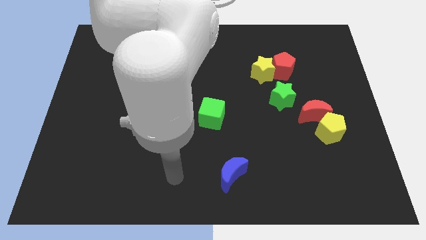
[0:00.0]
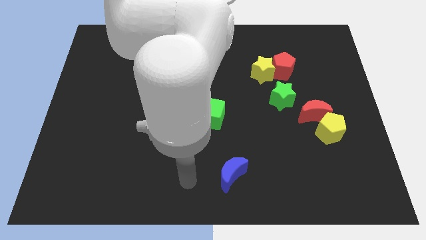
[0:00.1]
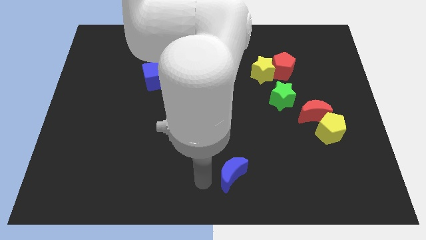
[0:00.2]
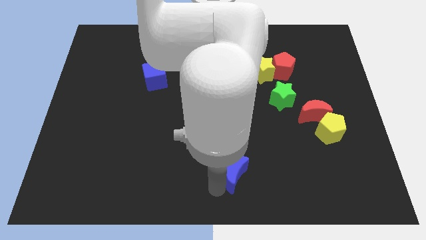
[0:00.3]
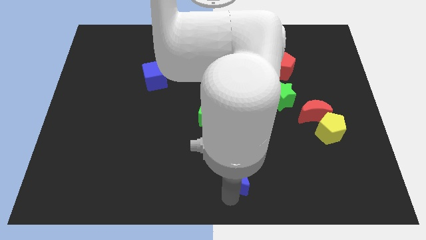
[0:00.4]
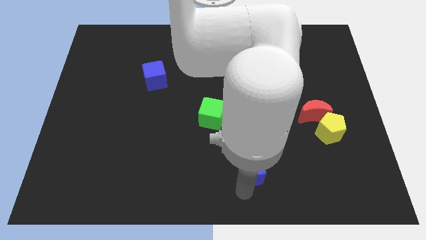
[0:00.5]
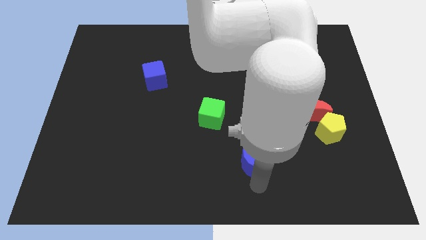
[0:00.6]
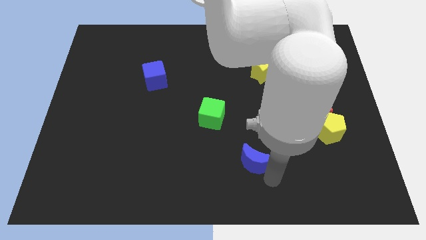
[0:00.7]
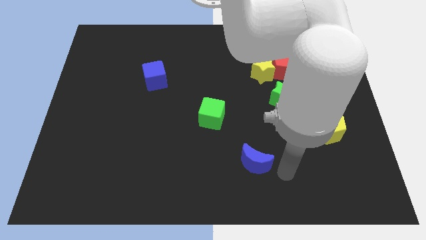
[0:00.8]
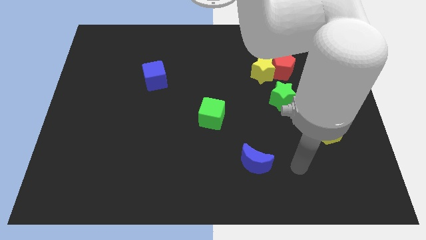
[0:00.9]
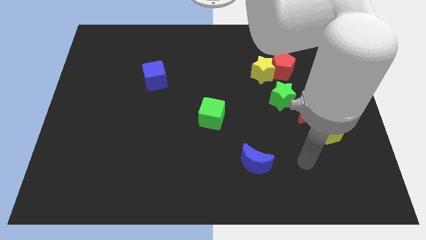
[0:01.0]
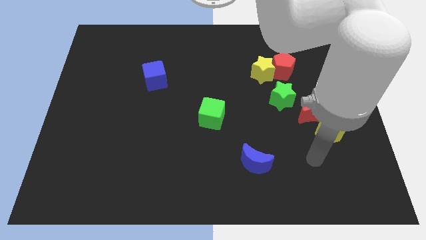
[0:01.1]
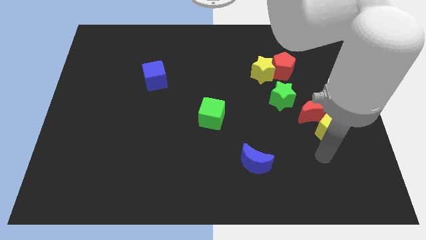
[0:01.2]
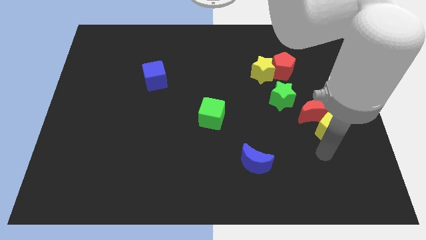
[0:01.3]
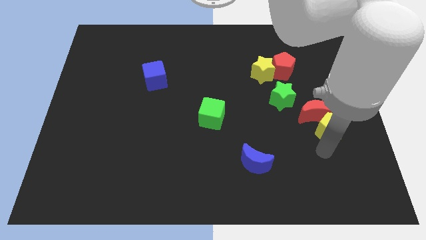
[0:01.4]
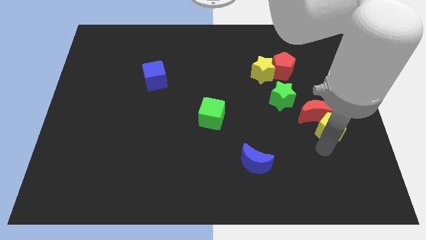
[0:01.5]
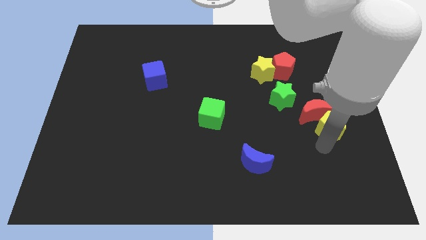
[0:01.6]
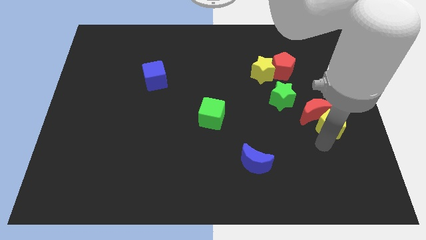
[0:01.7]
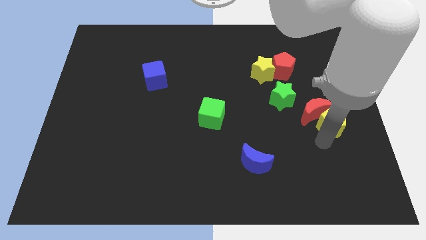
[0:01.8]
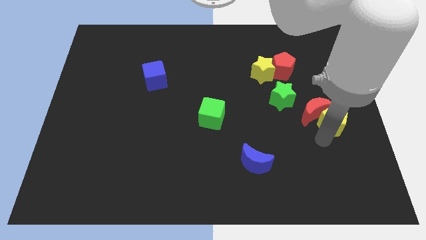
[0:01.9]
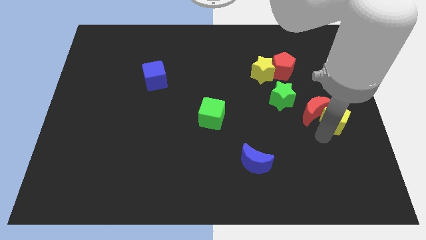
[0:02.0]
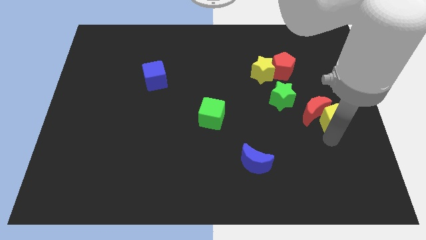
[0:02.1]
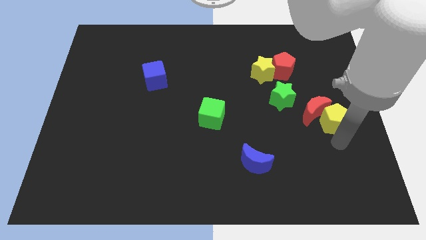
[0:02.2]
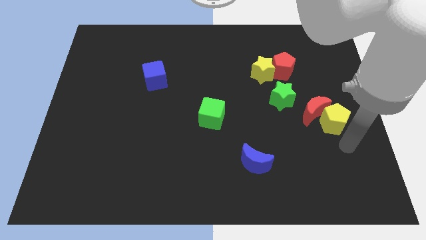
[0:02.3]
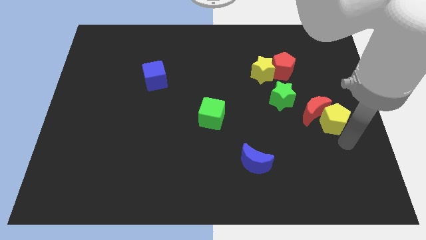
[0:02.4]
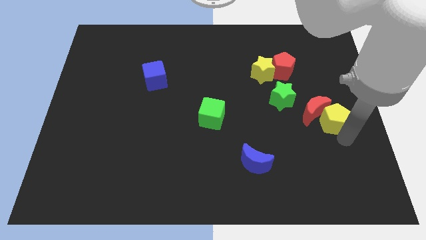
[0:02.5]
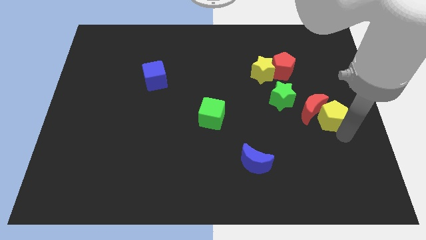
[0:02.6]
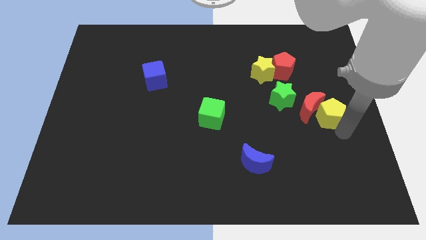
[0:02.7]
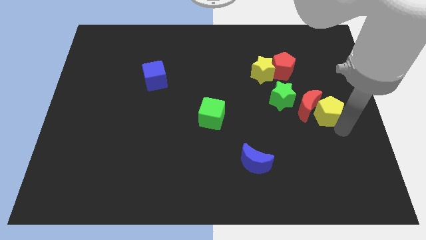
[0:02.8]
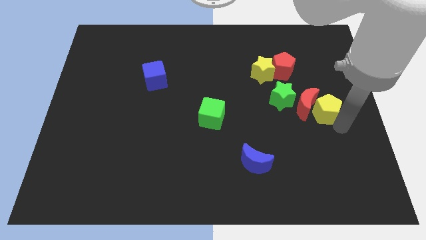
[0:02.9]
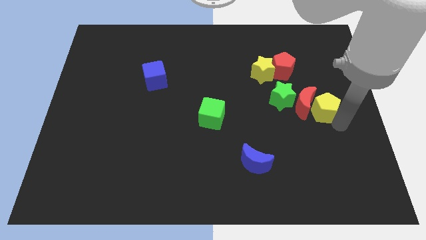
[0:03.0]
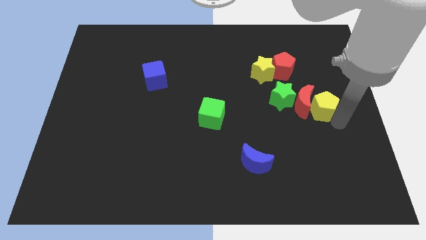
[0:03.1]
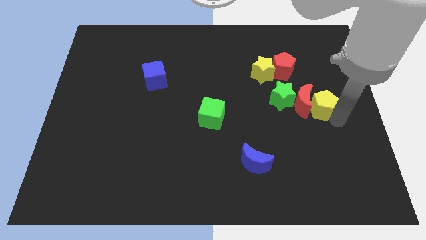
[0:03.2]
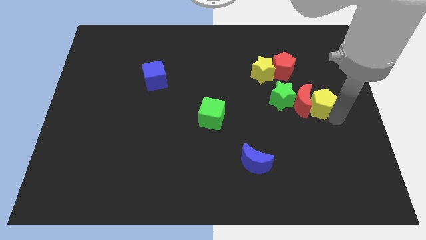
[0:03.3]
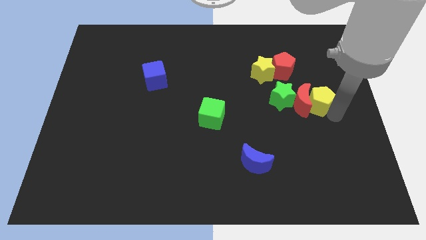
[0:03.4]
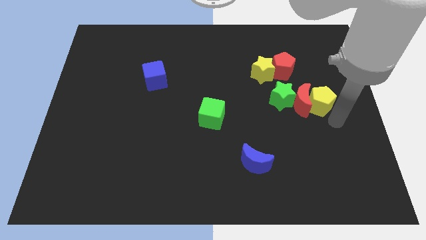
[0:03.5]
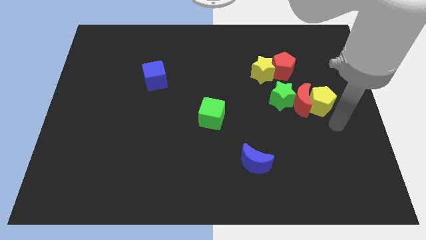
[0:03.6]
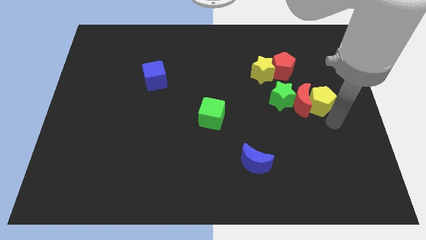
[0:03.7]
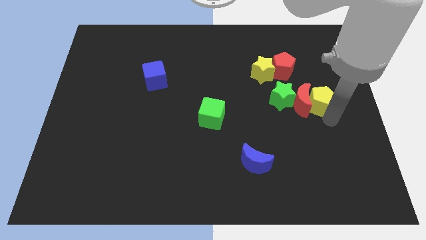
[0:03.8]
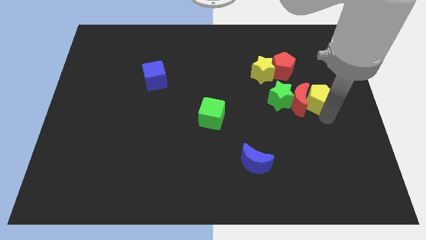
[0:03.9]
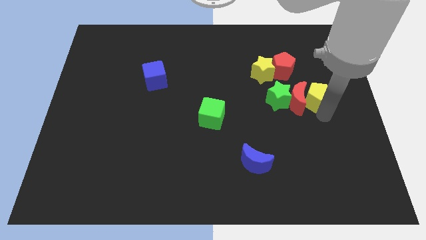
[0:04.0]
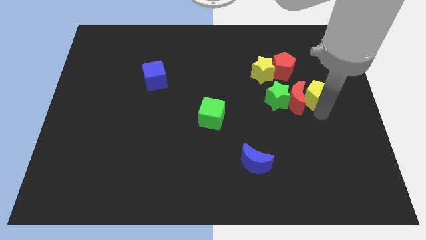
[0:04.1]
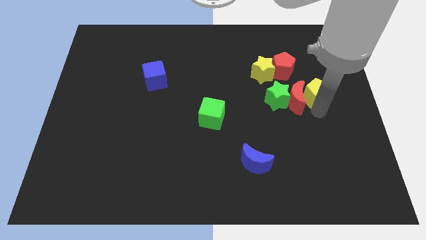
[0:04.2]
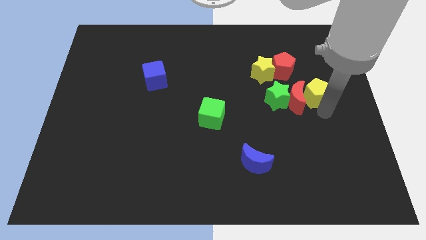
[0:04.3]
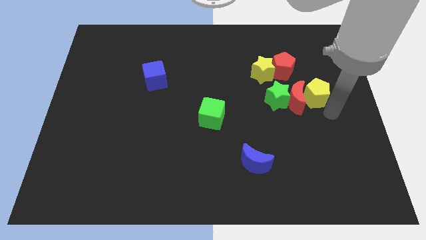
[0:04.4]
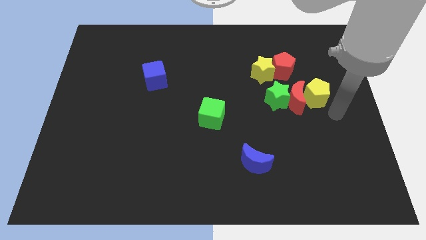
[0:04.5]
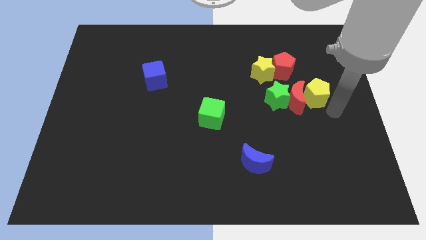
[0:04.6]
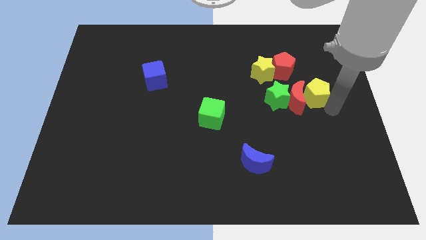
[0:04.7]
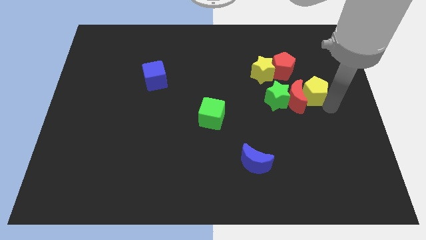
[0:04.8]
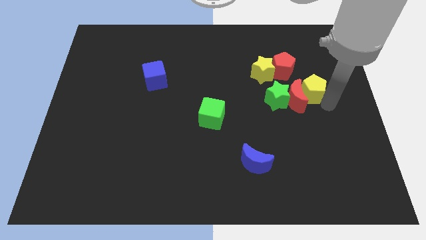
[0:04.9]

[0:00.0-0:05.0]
push the yellow pentagon diagonally up and to the right of the green star

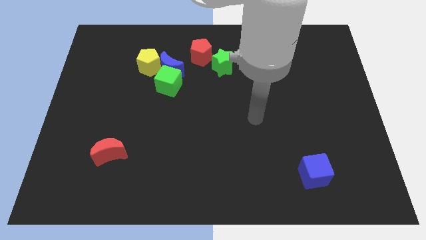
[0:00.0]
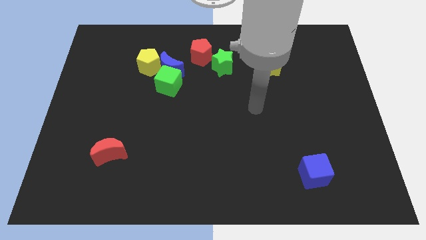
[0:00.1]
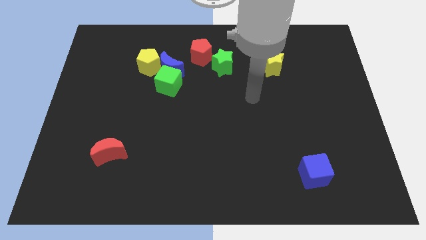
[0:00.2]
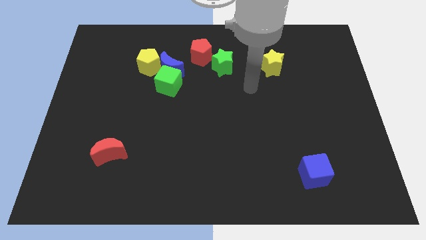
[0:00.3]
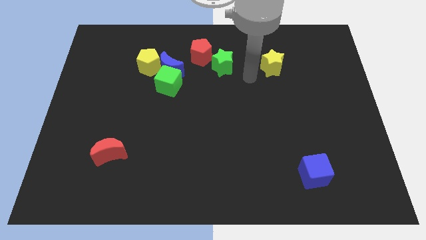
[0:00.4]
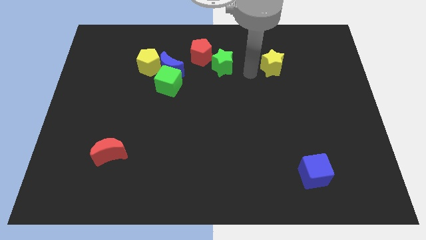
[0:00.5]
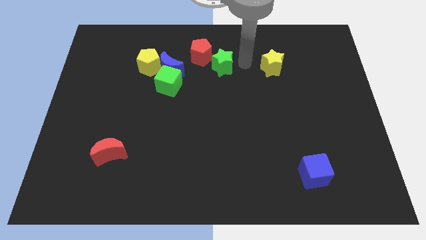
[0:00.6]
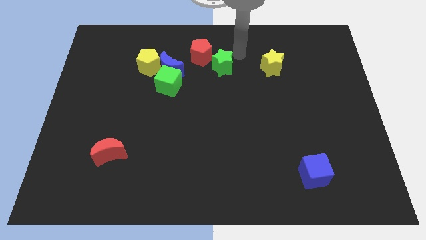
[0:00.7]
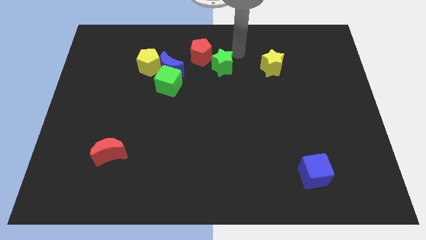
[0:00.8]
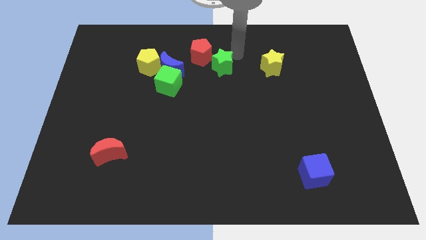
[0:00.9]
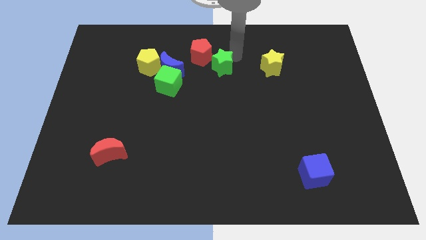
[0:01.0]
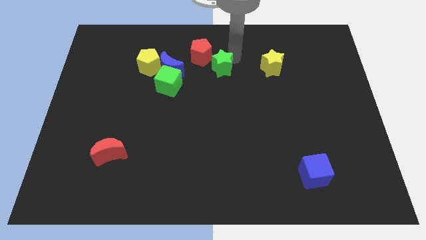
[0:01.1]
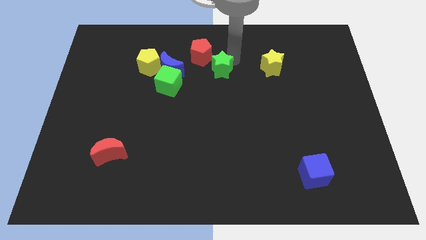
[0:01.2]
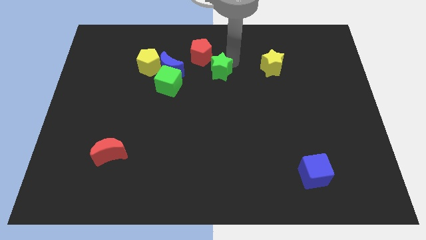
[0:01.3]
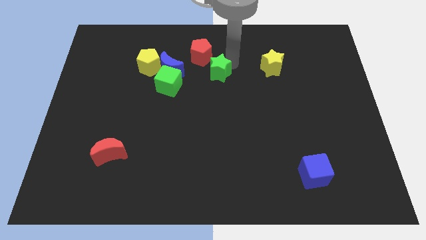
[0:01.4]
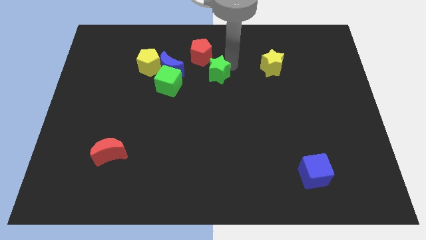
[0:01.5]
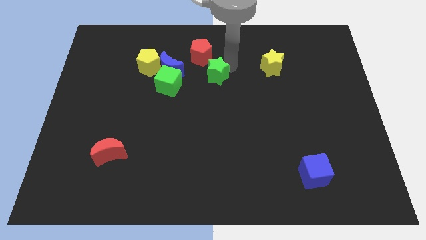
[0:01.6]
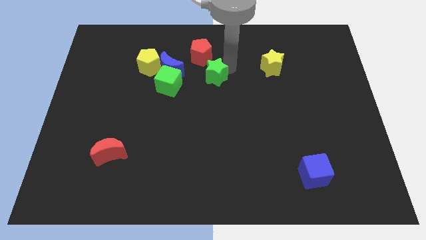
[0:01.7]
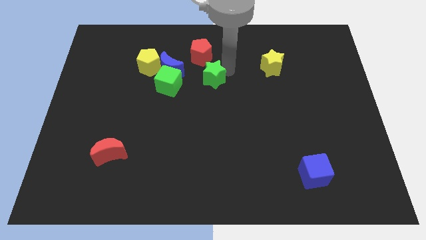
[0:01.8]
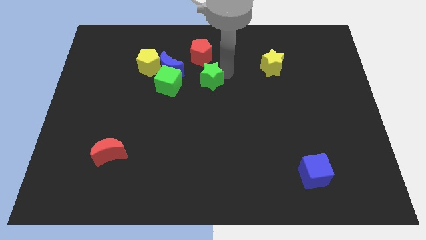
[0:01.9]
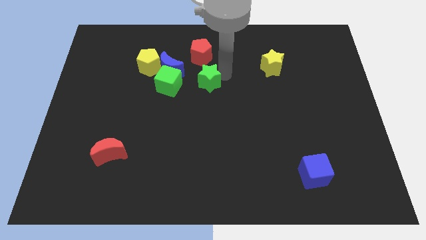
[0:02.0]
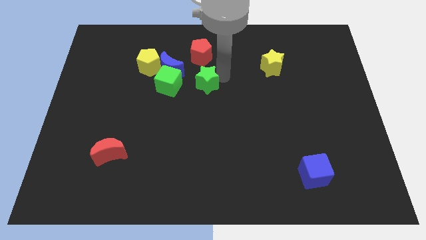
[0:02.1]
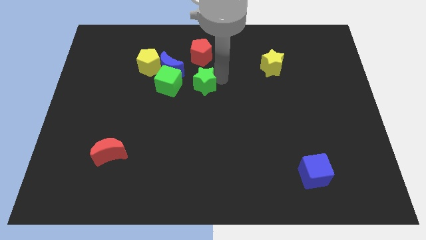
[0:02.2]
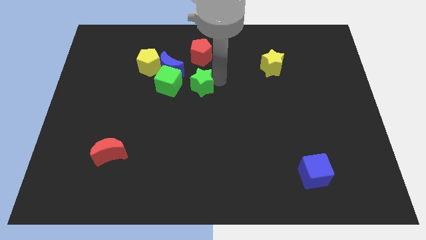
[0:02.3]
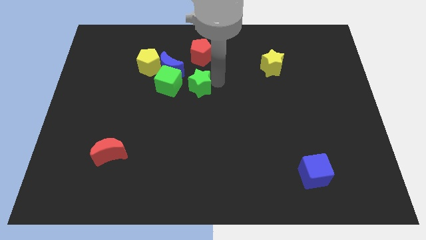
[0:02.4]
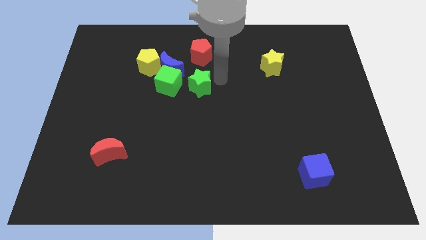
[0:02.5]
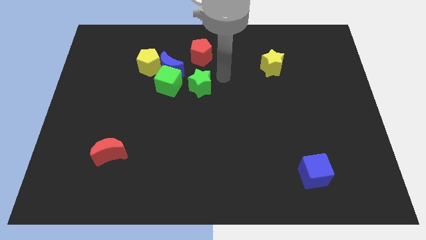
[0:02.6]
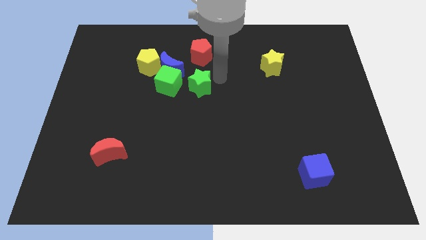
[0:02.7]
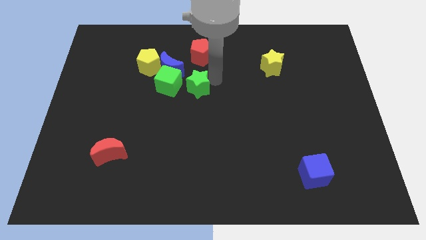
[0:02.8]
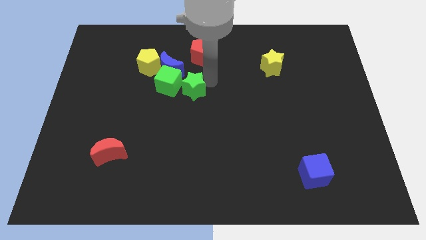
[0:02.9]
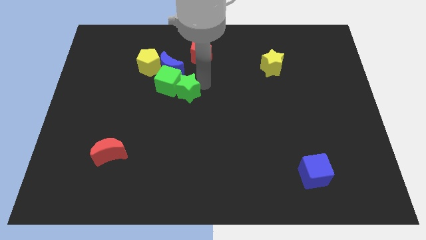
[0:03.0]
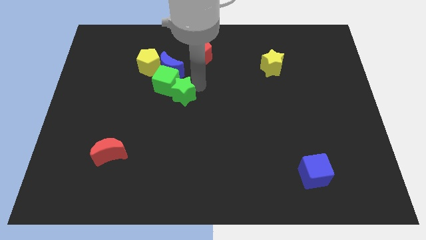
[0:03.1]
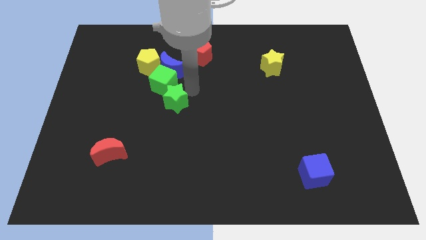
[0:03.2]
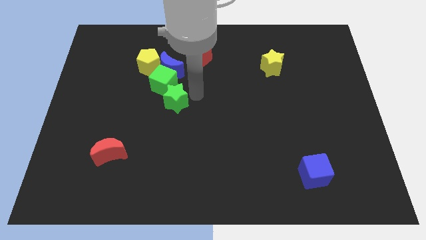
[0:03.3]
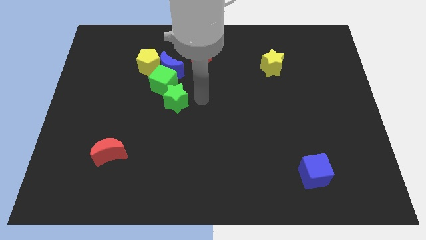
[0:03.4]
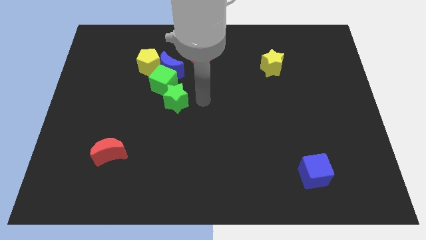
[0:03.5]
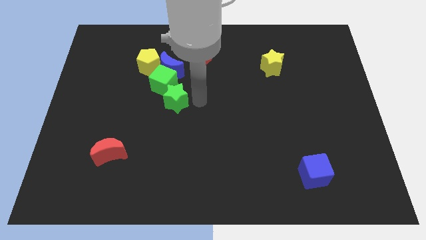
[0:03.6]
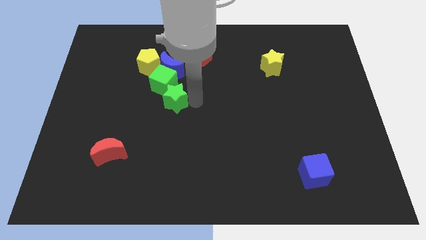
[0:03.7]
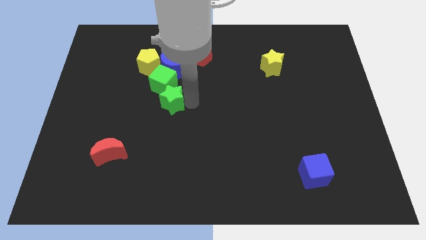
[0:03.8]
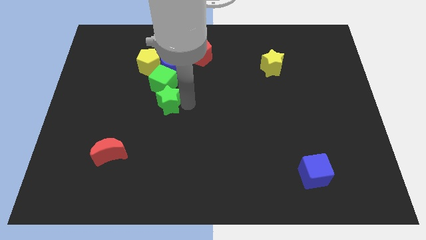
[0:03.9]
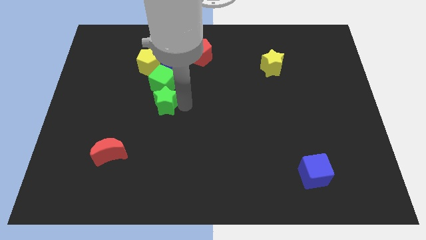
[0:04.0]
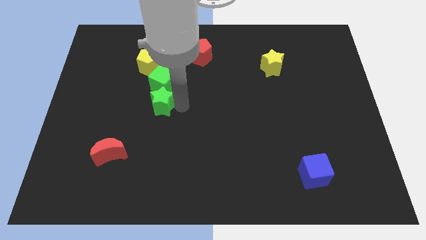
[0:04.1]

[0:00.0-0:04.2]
slide the green star to the bottom left of the green cube
